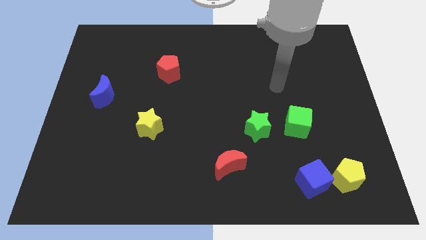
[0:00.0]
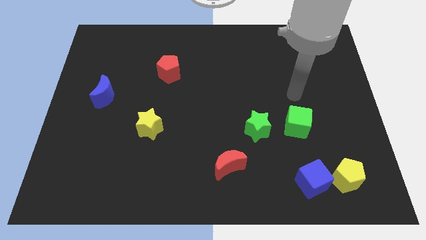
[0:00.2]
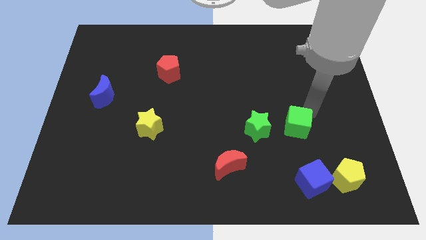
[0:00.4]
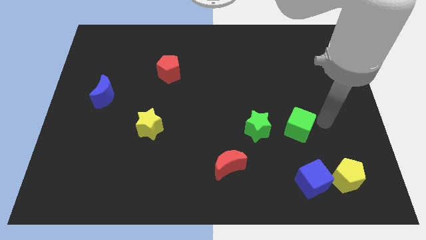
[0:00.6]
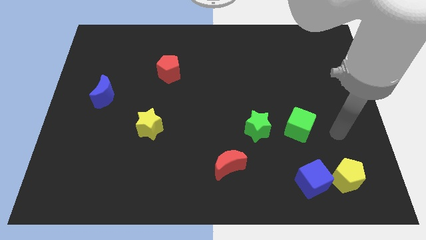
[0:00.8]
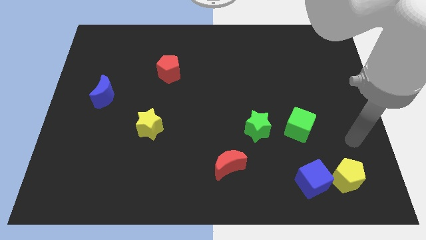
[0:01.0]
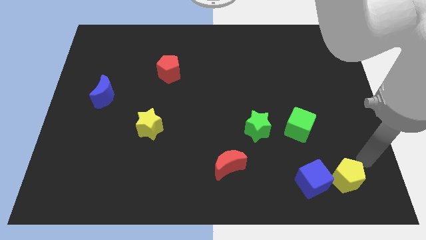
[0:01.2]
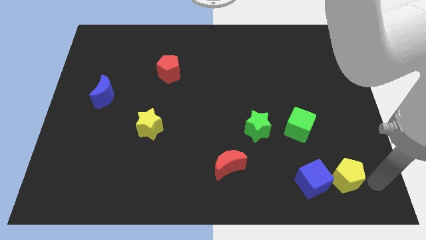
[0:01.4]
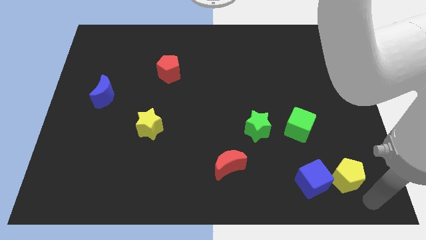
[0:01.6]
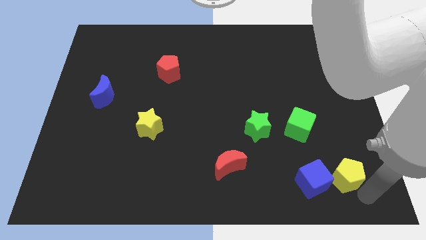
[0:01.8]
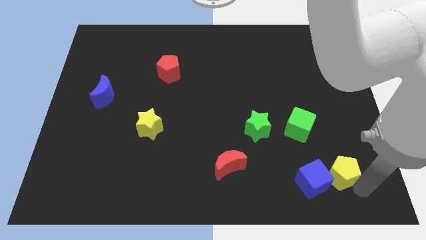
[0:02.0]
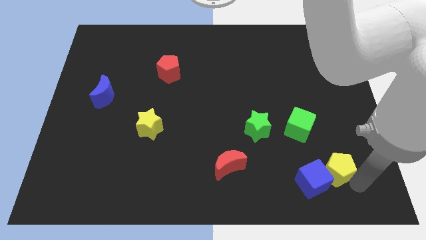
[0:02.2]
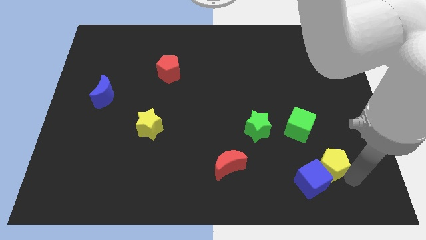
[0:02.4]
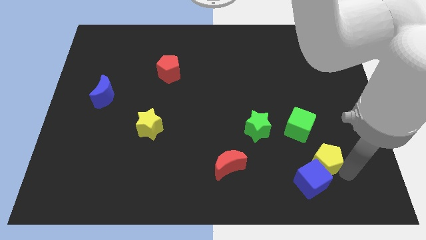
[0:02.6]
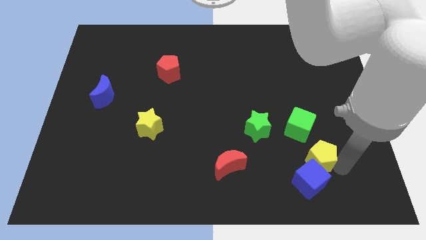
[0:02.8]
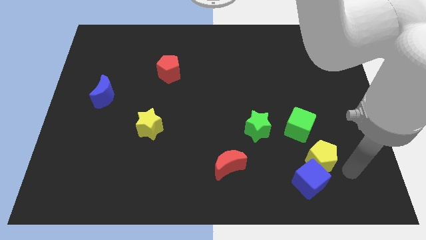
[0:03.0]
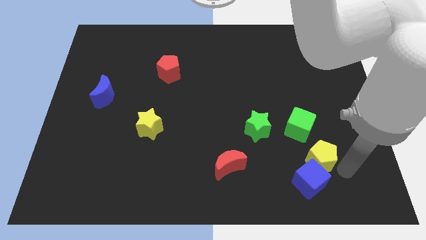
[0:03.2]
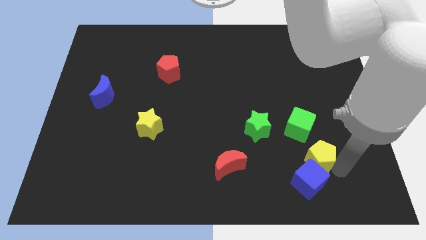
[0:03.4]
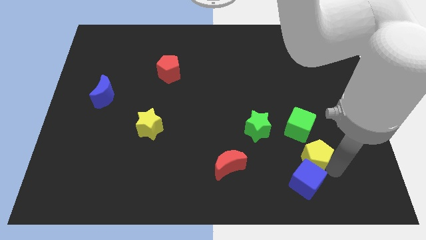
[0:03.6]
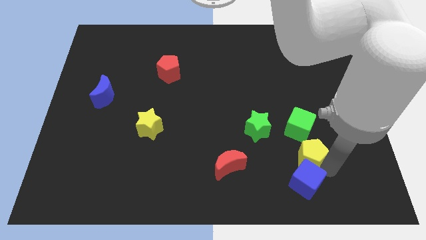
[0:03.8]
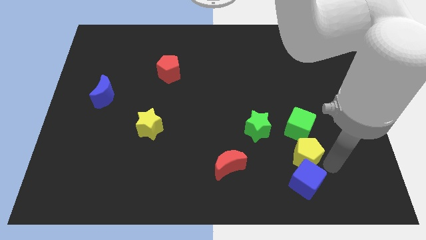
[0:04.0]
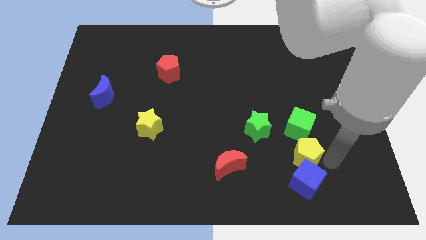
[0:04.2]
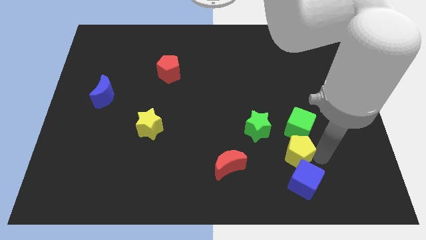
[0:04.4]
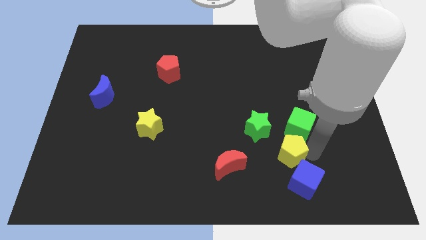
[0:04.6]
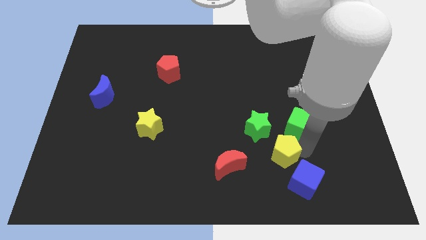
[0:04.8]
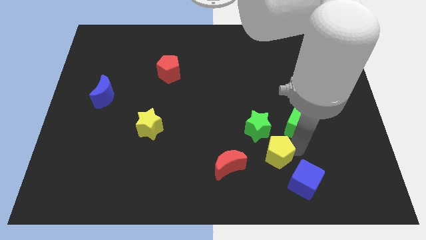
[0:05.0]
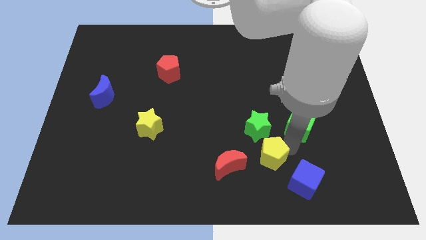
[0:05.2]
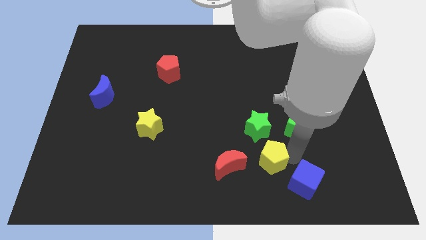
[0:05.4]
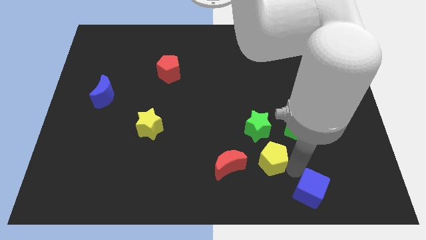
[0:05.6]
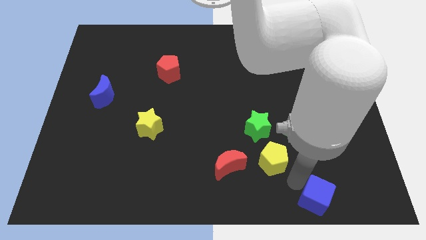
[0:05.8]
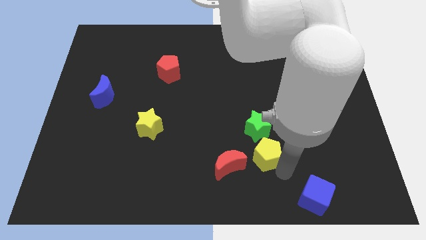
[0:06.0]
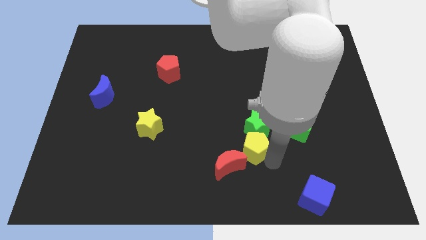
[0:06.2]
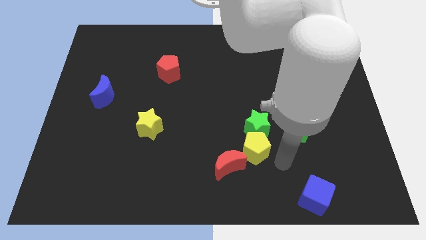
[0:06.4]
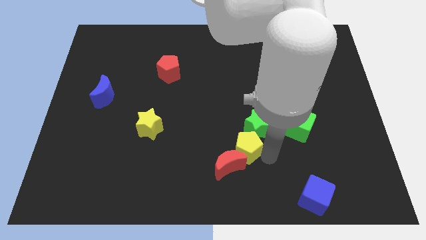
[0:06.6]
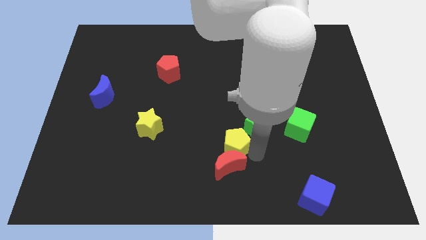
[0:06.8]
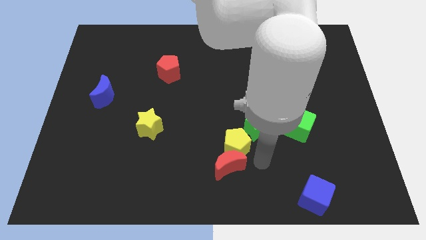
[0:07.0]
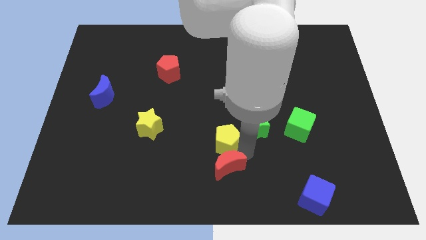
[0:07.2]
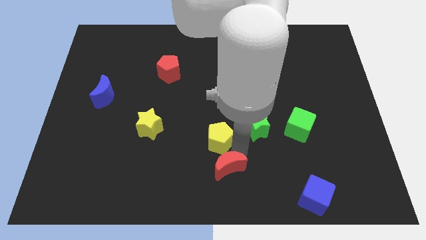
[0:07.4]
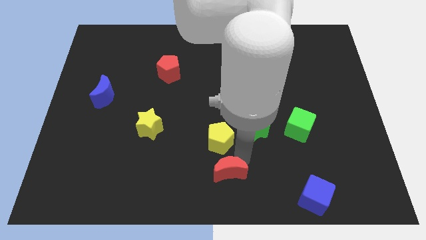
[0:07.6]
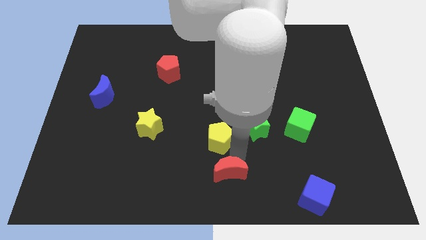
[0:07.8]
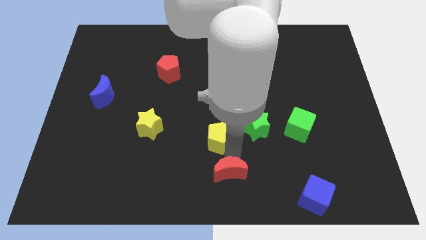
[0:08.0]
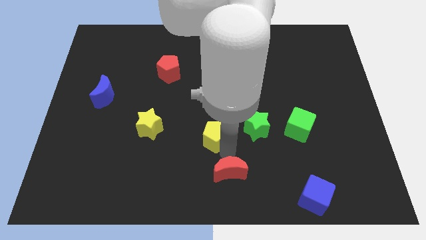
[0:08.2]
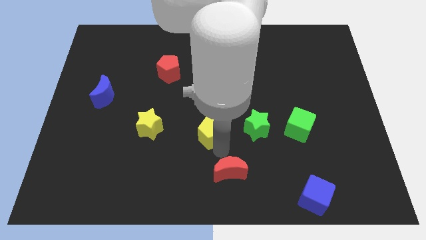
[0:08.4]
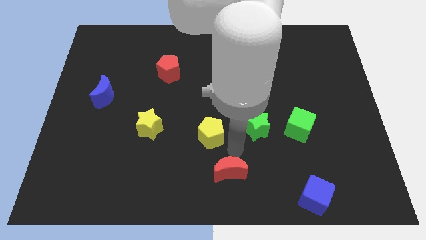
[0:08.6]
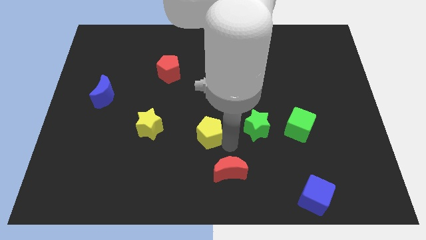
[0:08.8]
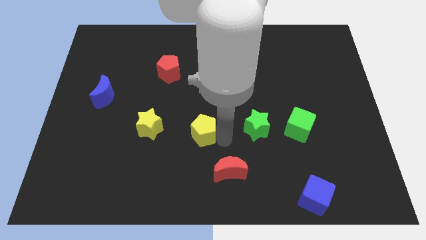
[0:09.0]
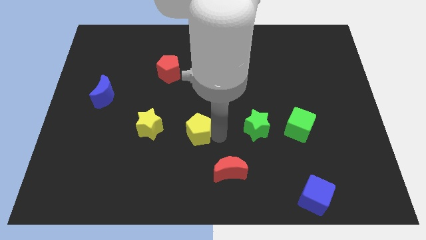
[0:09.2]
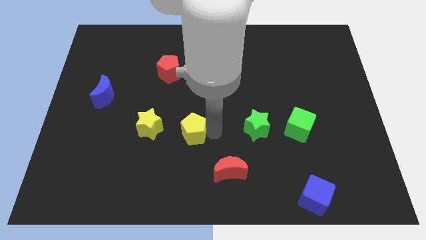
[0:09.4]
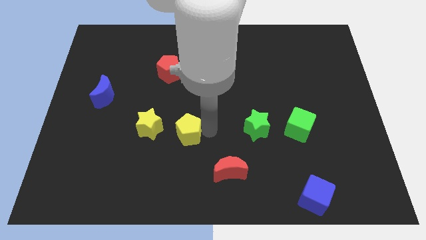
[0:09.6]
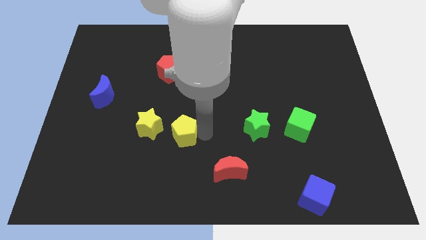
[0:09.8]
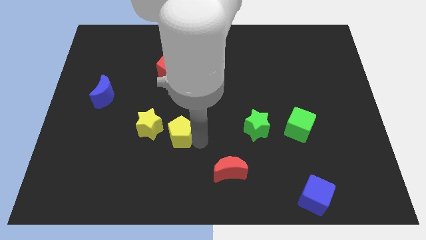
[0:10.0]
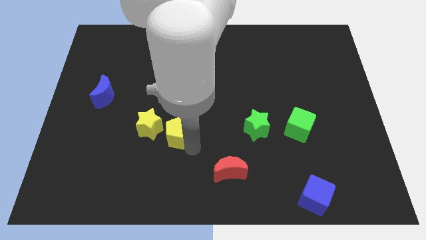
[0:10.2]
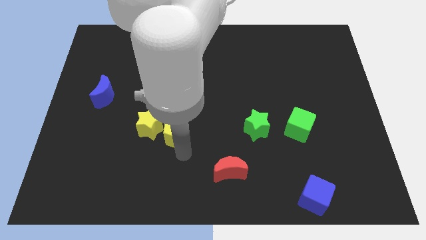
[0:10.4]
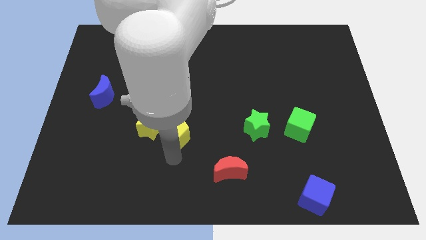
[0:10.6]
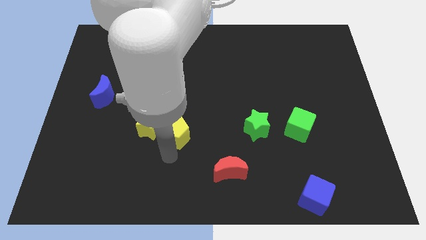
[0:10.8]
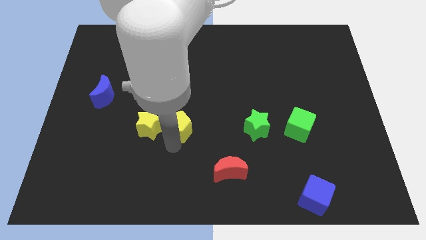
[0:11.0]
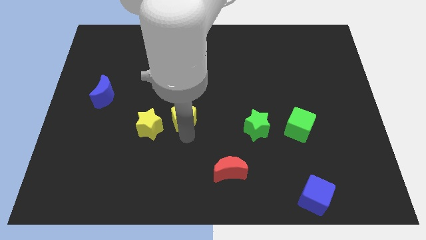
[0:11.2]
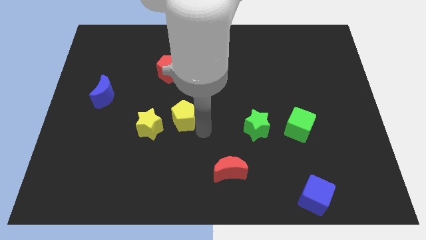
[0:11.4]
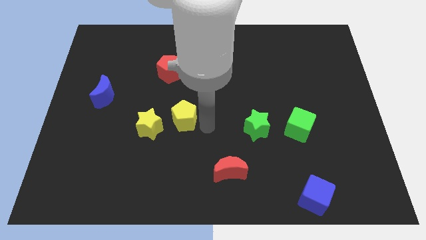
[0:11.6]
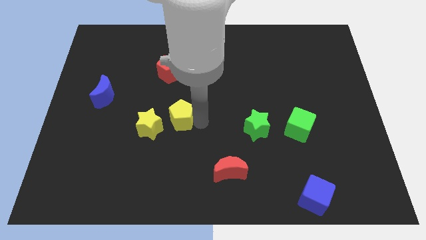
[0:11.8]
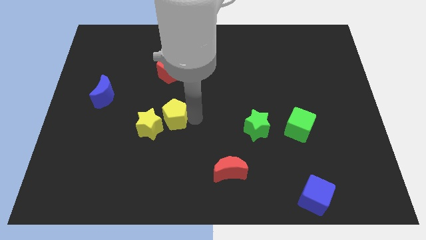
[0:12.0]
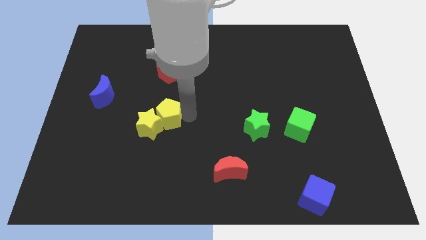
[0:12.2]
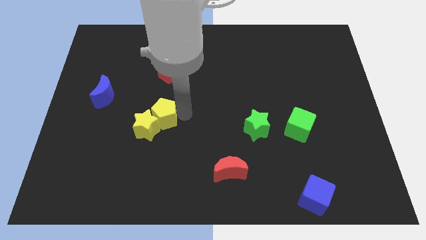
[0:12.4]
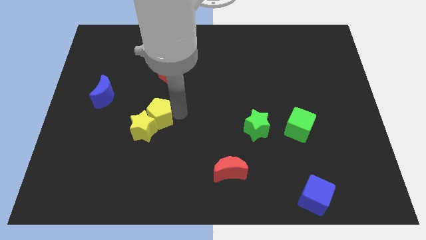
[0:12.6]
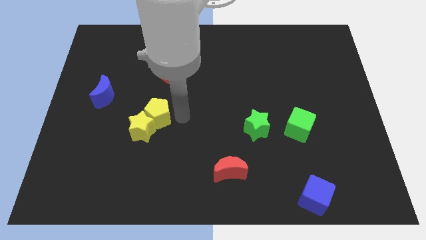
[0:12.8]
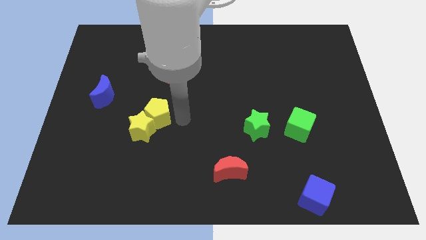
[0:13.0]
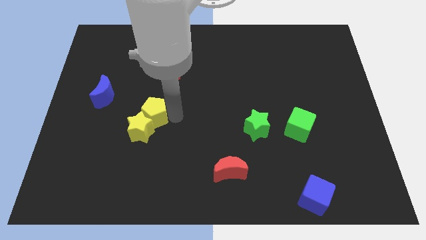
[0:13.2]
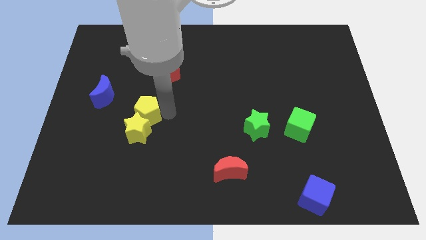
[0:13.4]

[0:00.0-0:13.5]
put the yellow pentagon to the top left of the yellow star
